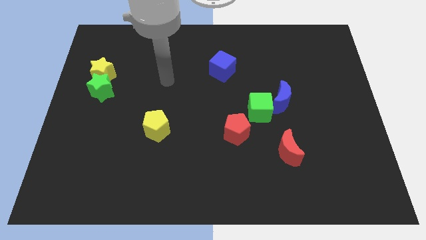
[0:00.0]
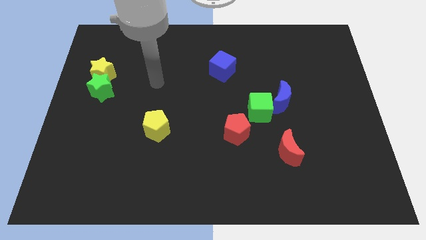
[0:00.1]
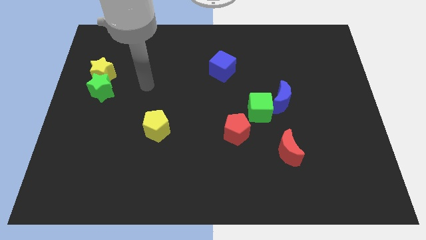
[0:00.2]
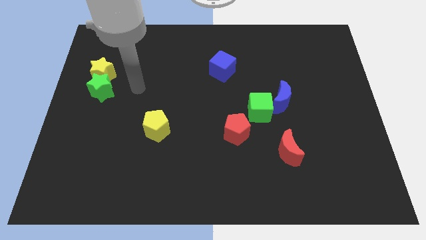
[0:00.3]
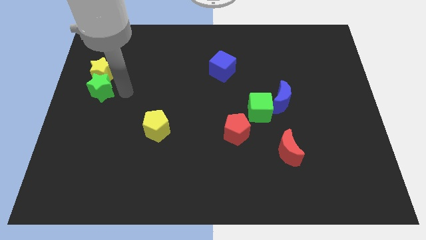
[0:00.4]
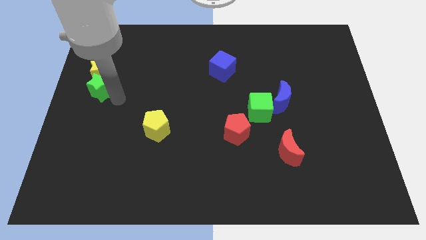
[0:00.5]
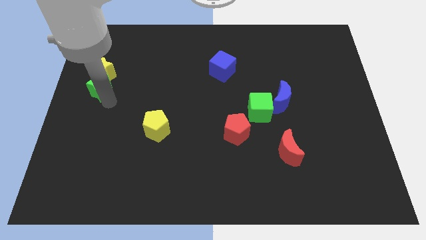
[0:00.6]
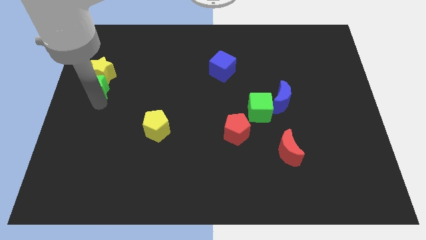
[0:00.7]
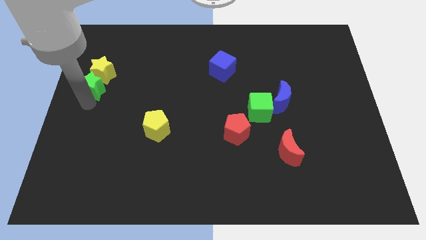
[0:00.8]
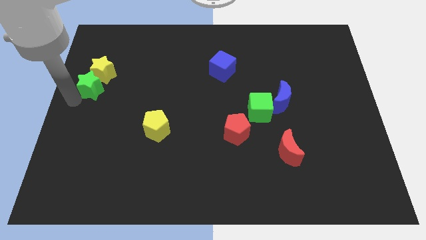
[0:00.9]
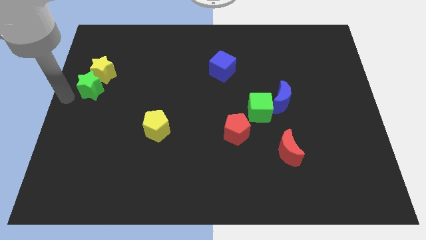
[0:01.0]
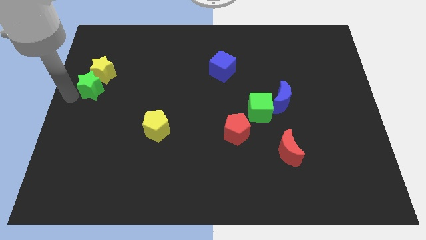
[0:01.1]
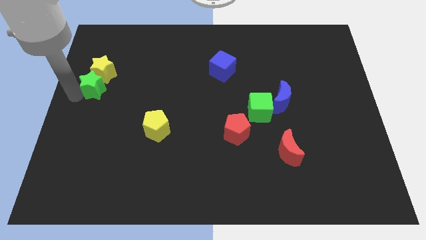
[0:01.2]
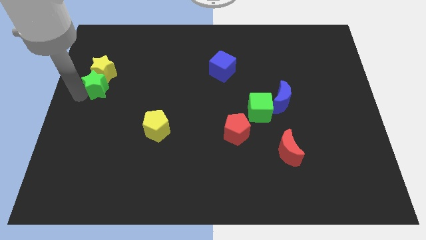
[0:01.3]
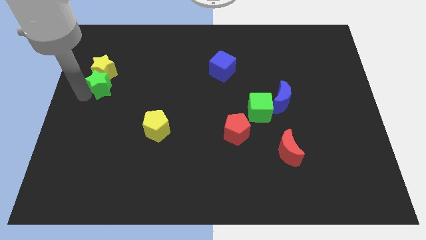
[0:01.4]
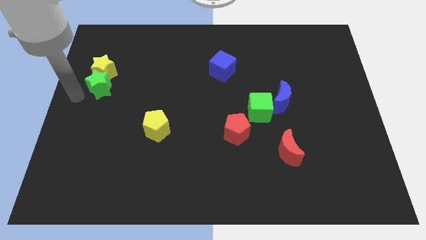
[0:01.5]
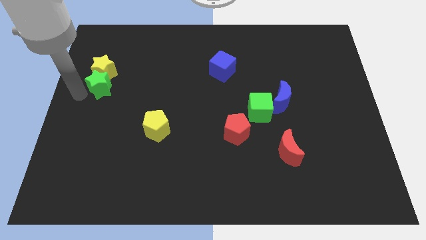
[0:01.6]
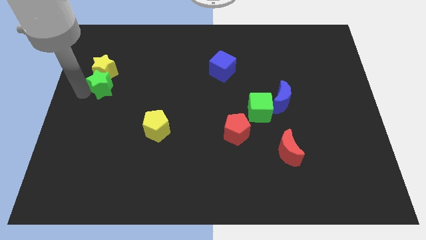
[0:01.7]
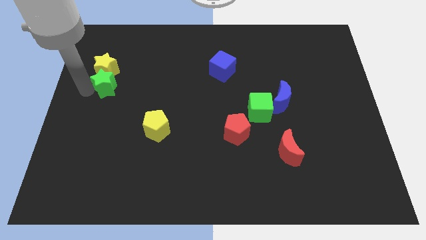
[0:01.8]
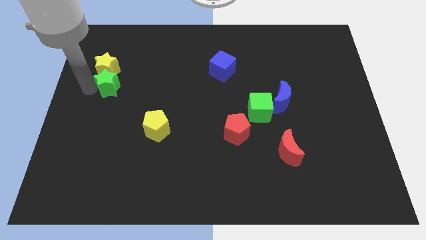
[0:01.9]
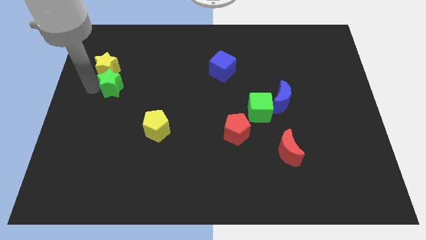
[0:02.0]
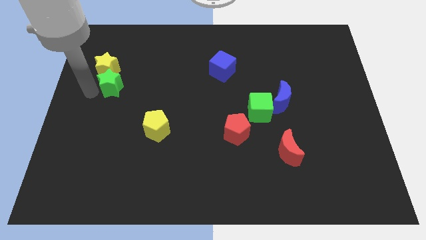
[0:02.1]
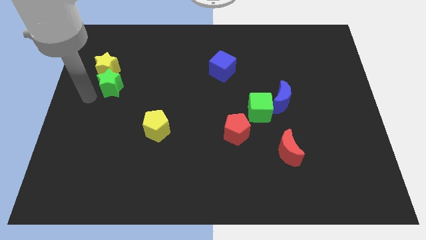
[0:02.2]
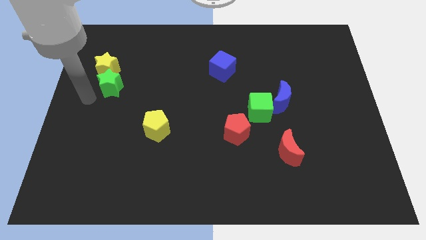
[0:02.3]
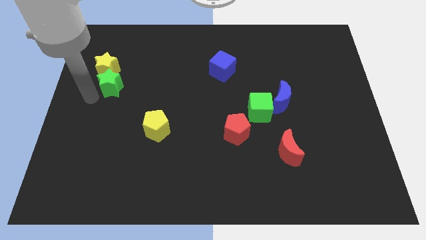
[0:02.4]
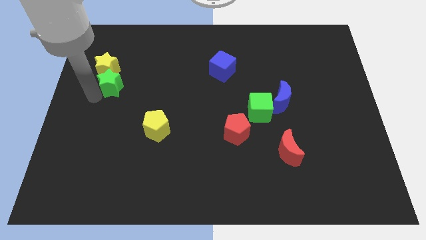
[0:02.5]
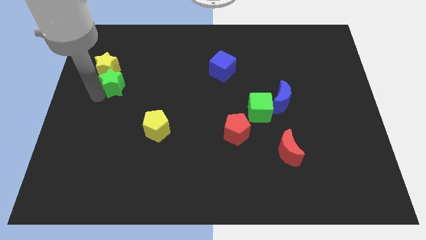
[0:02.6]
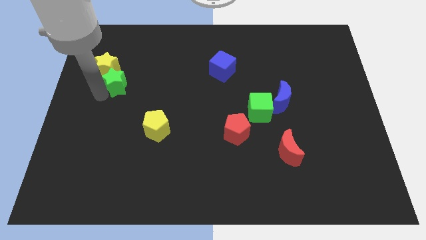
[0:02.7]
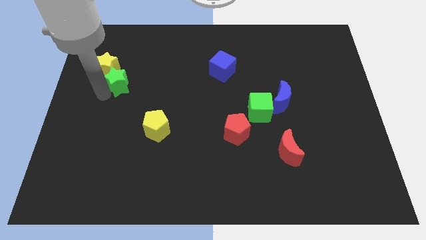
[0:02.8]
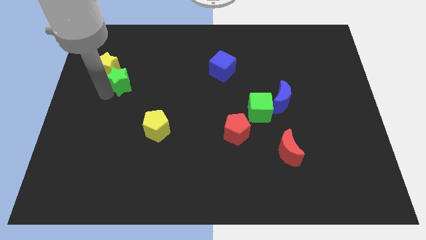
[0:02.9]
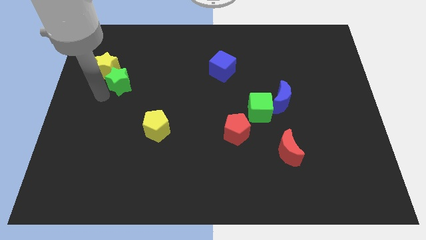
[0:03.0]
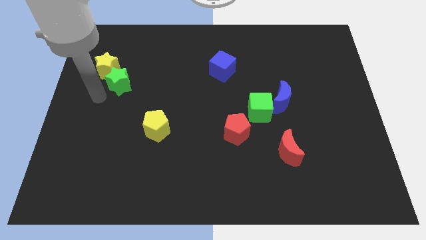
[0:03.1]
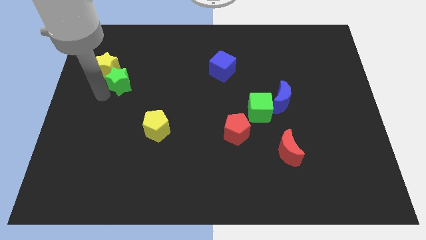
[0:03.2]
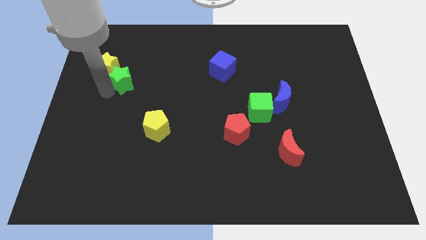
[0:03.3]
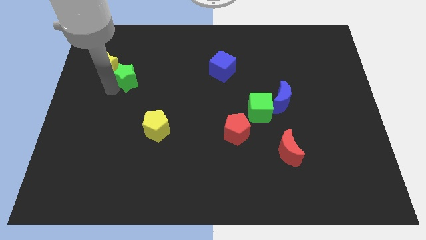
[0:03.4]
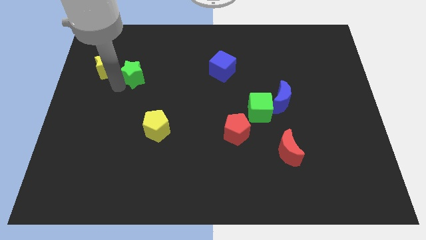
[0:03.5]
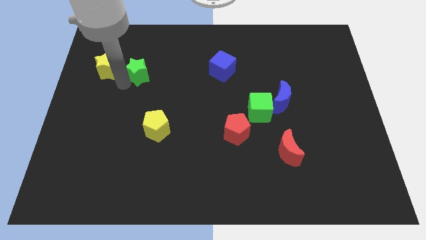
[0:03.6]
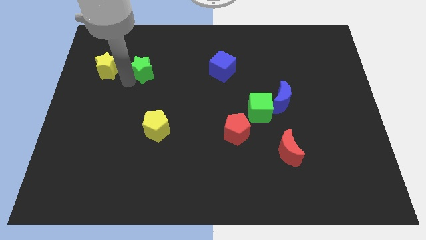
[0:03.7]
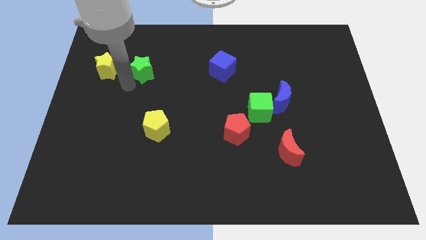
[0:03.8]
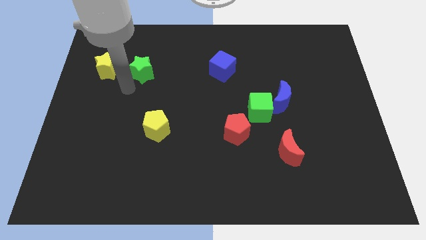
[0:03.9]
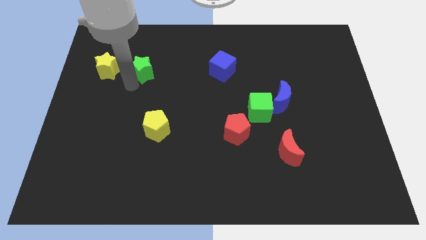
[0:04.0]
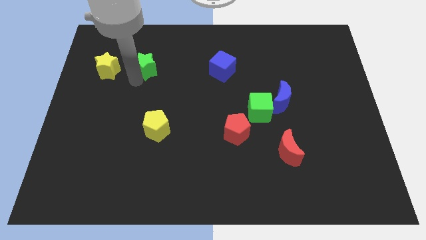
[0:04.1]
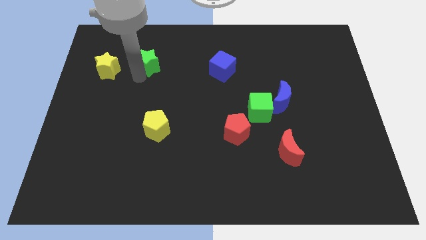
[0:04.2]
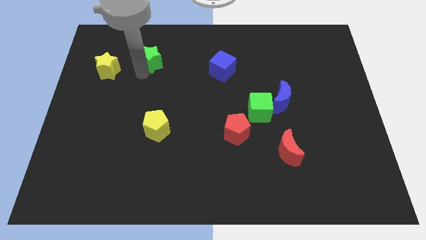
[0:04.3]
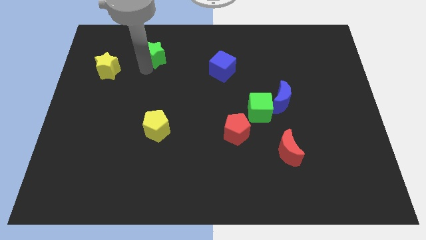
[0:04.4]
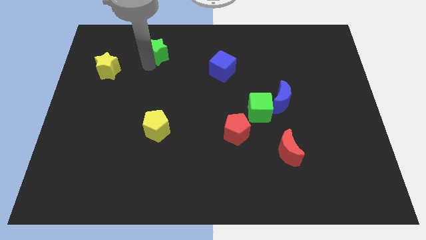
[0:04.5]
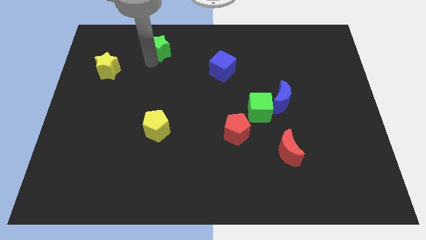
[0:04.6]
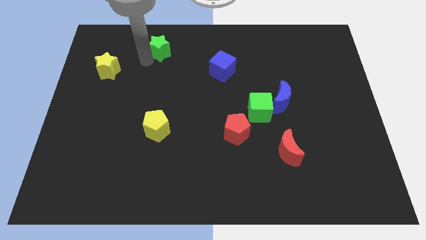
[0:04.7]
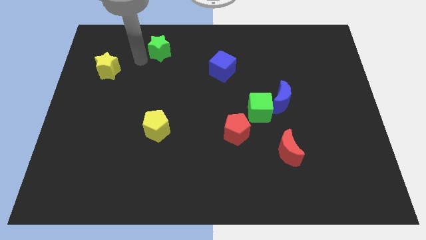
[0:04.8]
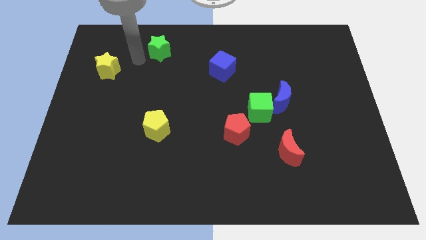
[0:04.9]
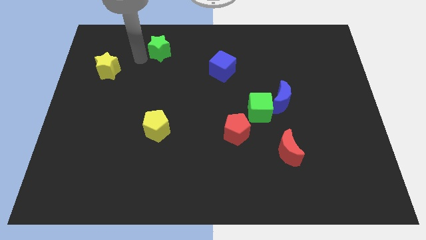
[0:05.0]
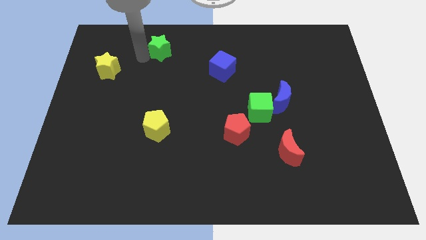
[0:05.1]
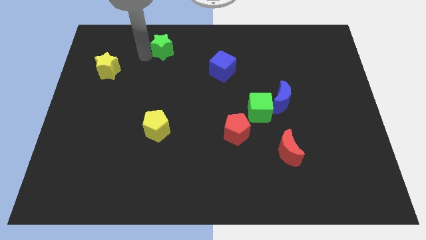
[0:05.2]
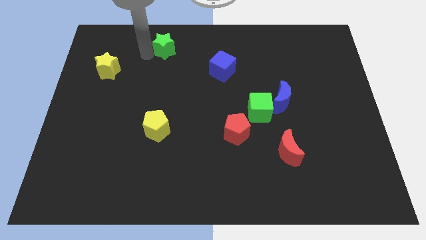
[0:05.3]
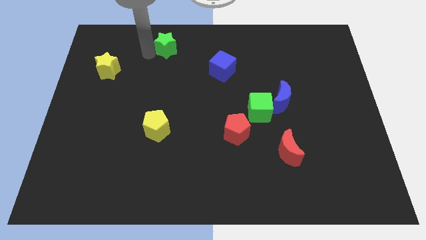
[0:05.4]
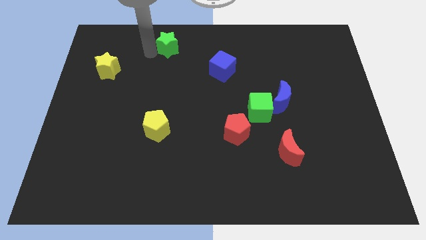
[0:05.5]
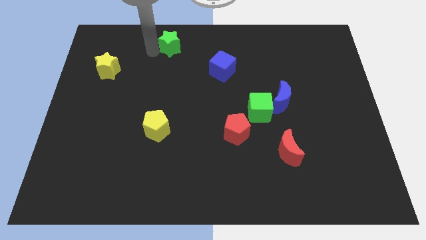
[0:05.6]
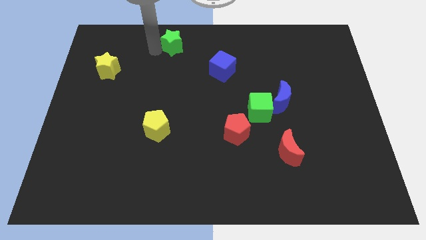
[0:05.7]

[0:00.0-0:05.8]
slide the green star to the towards your base

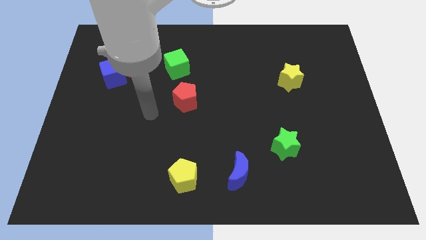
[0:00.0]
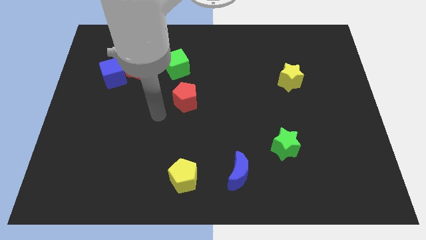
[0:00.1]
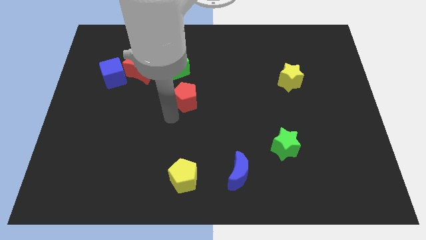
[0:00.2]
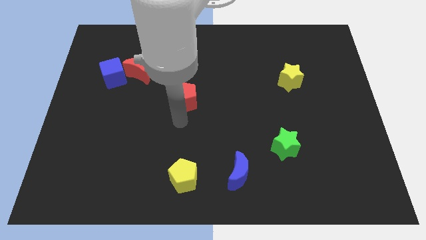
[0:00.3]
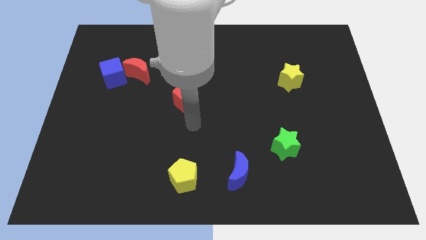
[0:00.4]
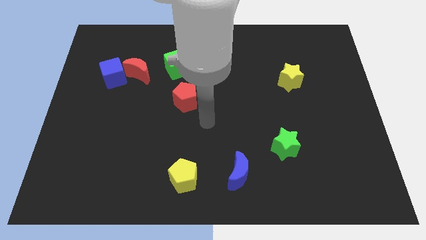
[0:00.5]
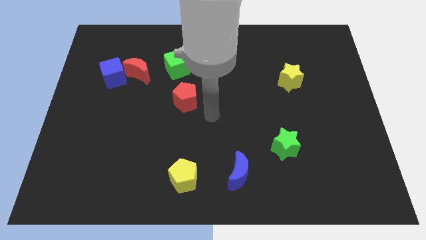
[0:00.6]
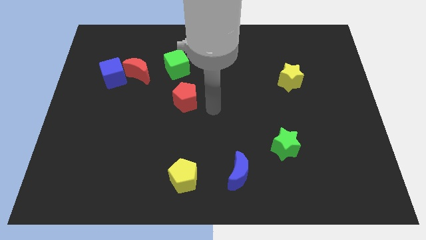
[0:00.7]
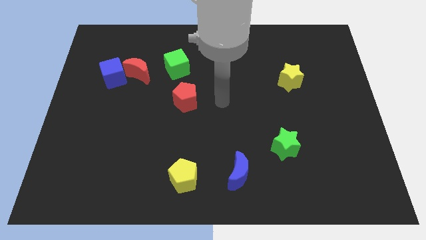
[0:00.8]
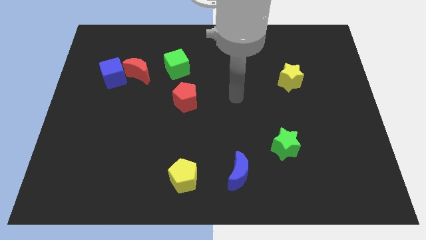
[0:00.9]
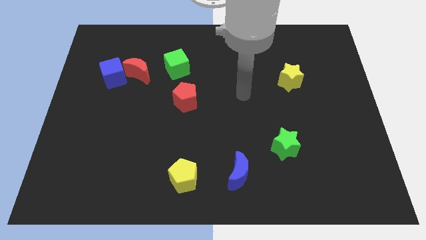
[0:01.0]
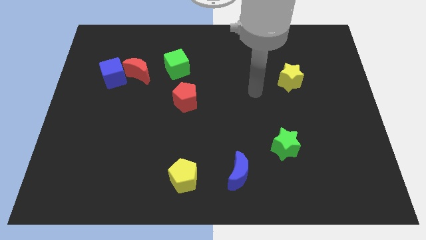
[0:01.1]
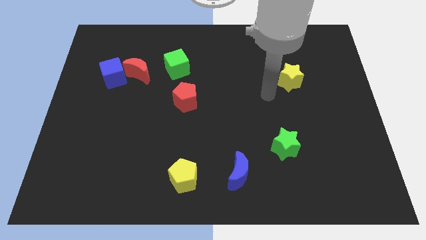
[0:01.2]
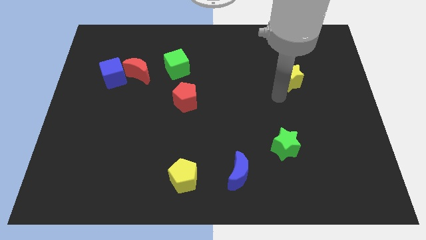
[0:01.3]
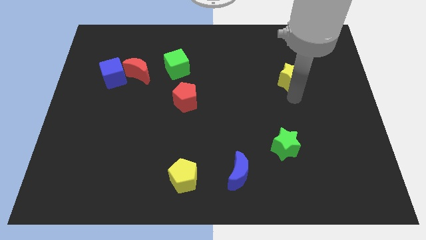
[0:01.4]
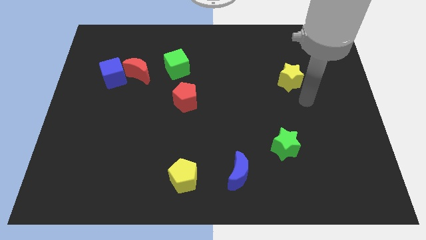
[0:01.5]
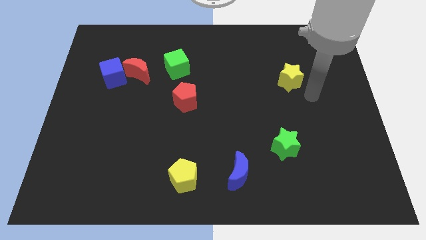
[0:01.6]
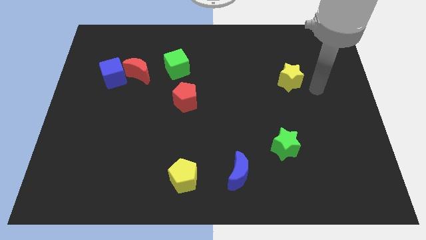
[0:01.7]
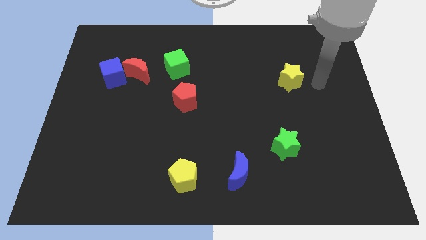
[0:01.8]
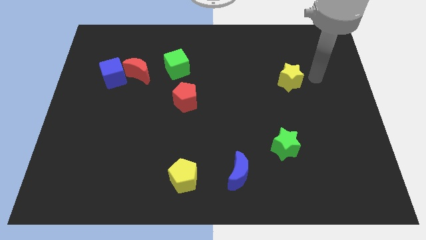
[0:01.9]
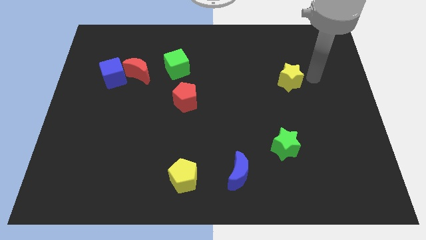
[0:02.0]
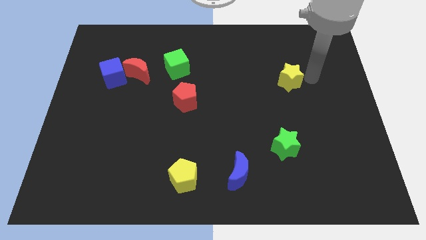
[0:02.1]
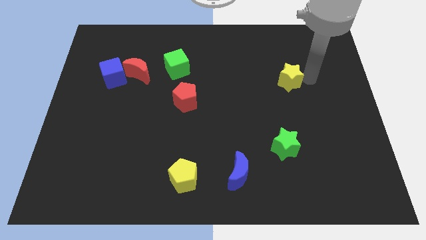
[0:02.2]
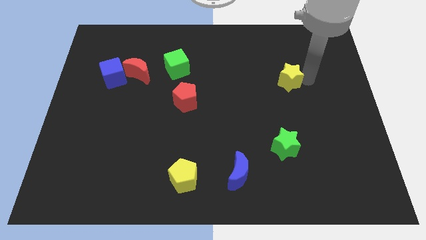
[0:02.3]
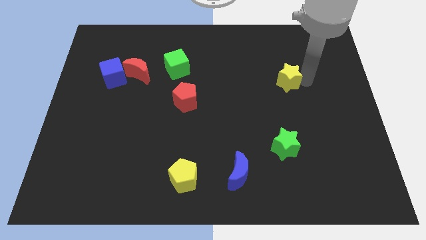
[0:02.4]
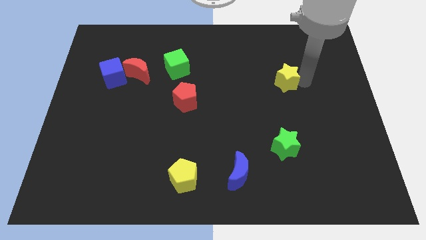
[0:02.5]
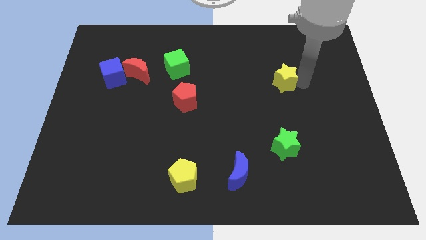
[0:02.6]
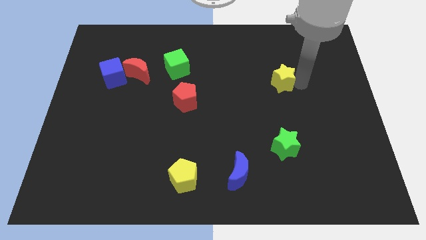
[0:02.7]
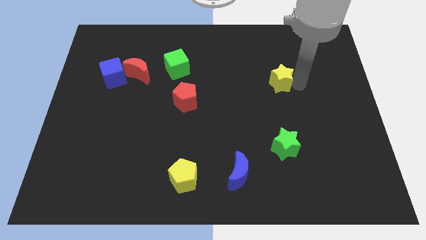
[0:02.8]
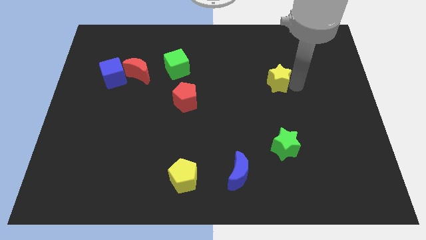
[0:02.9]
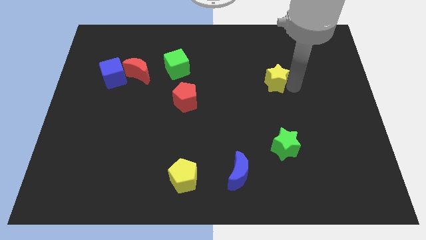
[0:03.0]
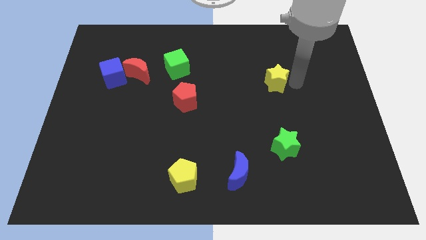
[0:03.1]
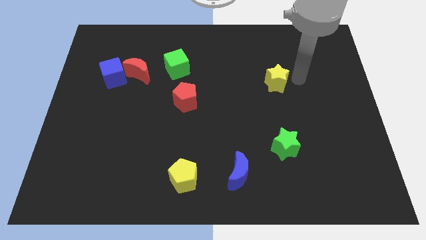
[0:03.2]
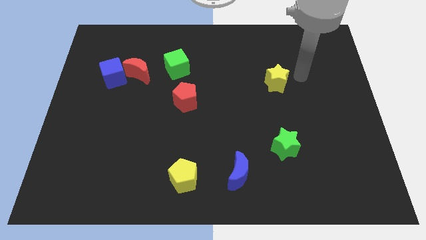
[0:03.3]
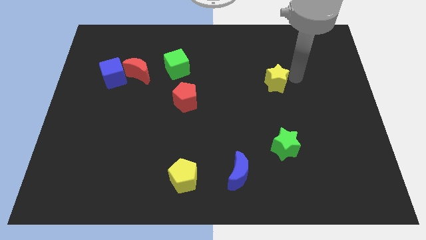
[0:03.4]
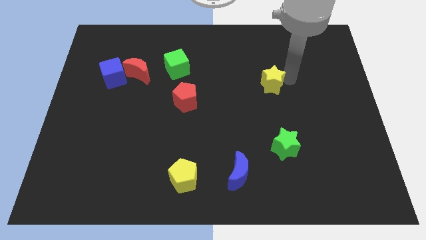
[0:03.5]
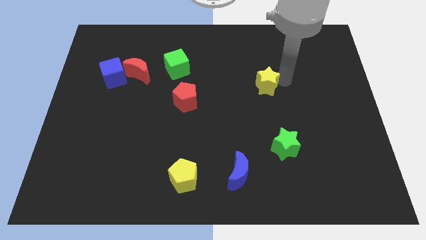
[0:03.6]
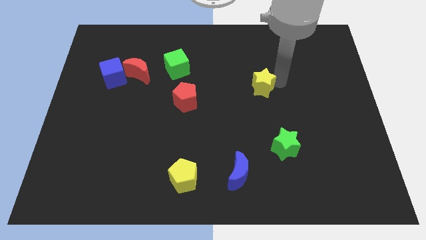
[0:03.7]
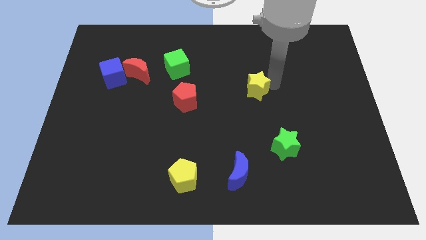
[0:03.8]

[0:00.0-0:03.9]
slide the yellow star to the center of the board
